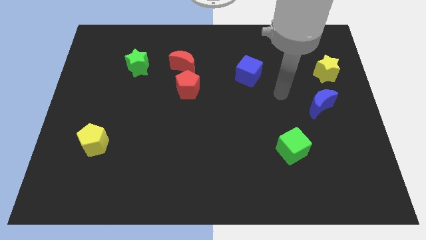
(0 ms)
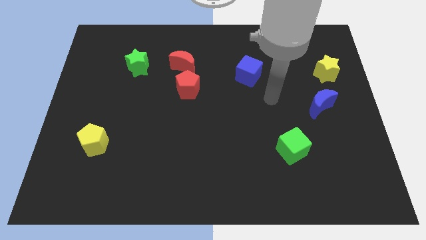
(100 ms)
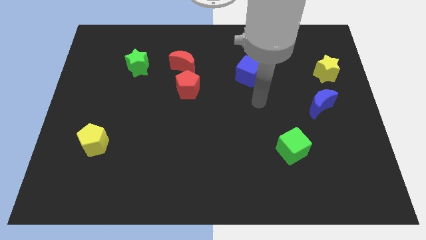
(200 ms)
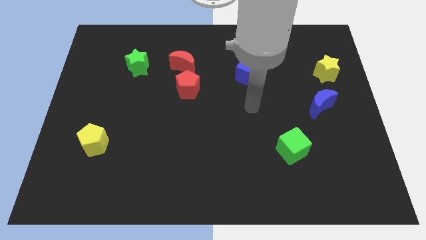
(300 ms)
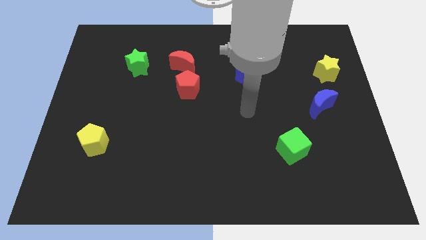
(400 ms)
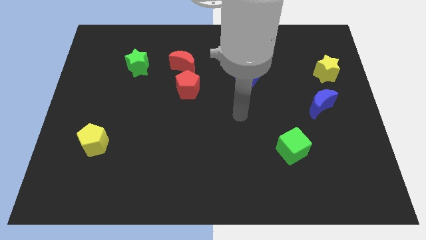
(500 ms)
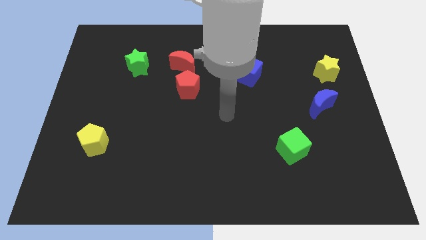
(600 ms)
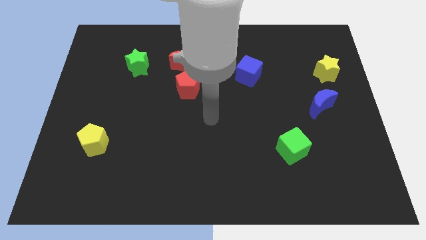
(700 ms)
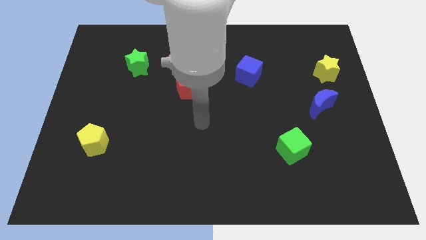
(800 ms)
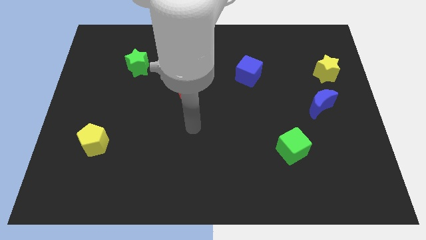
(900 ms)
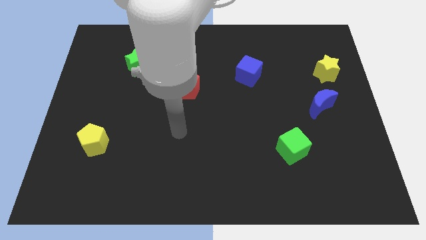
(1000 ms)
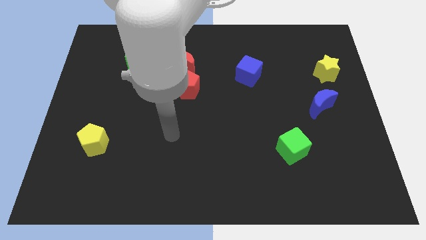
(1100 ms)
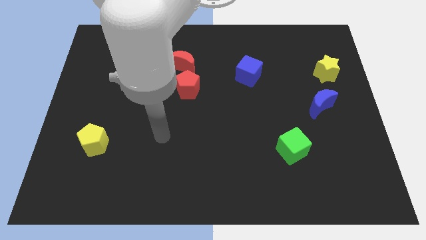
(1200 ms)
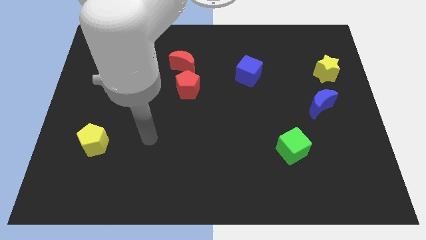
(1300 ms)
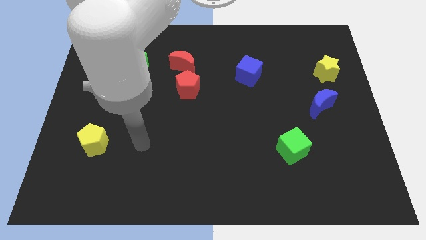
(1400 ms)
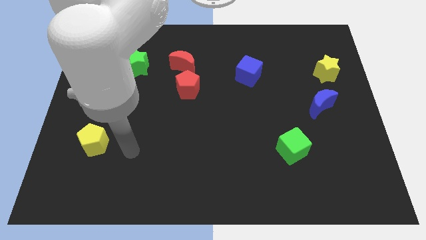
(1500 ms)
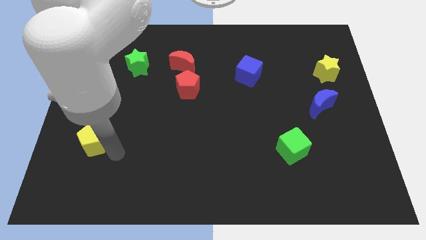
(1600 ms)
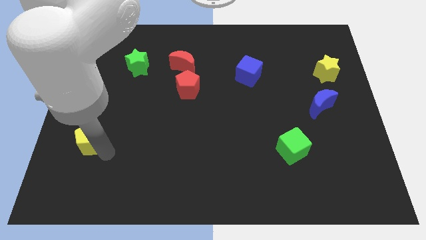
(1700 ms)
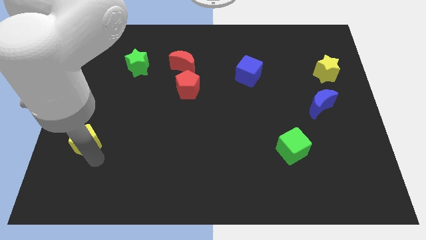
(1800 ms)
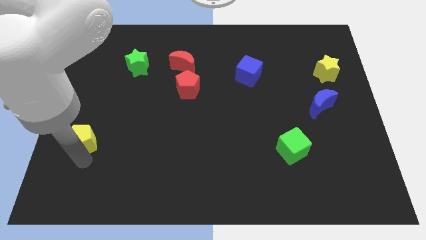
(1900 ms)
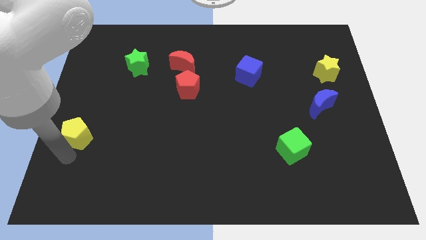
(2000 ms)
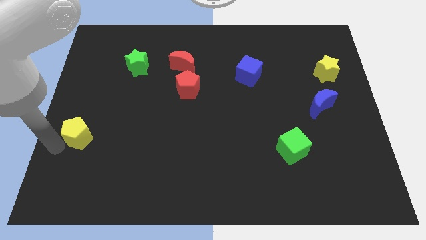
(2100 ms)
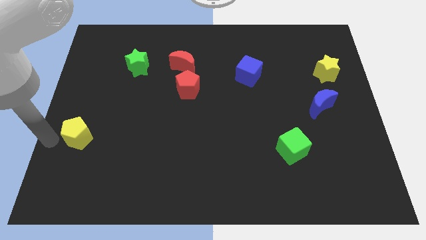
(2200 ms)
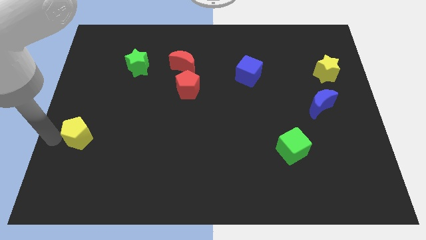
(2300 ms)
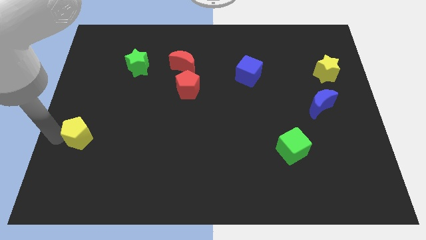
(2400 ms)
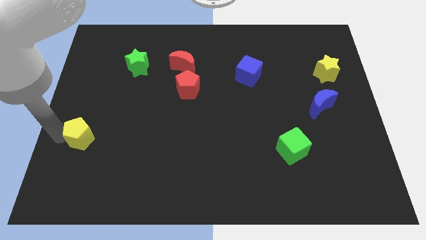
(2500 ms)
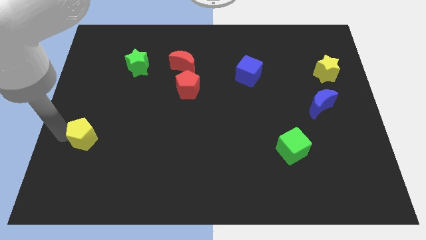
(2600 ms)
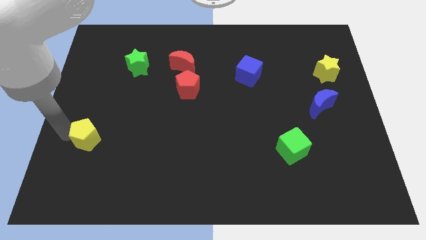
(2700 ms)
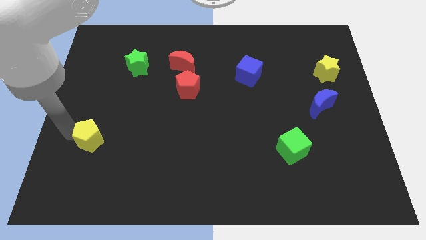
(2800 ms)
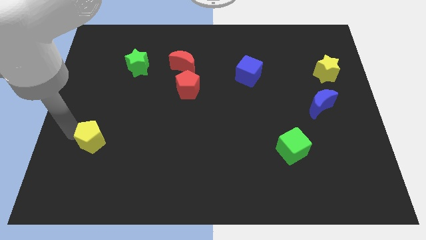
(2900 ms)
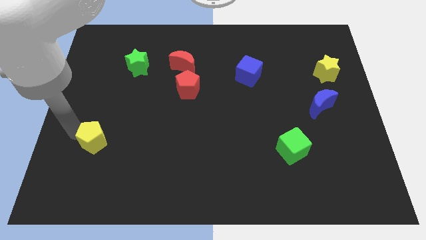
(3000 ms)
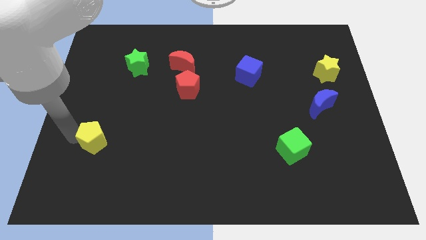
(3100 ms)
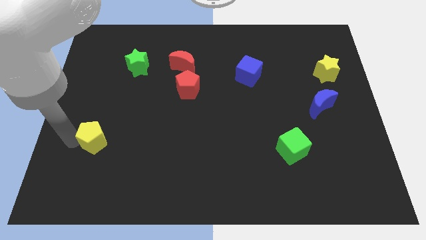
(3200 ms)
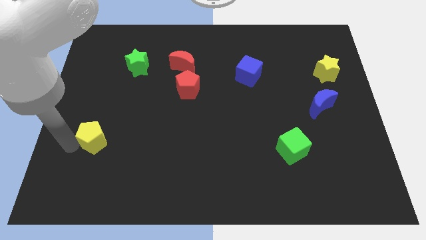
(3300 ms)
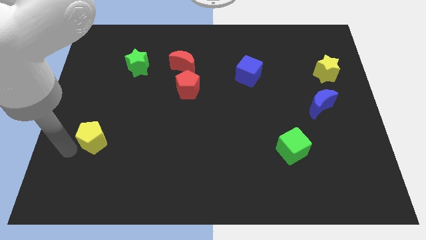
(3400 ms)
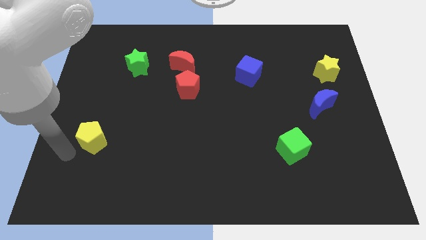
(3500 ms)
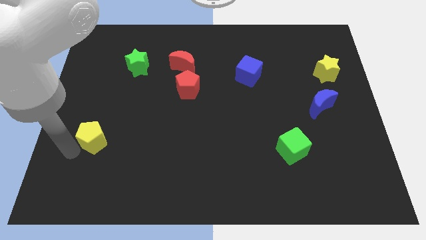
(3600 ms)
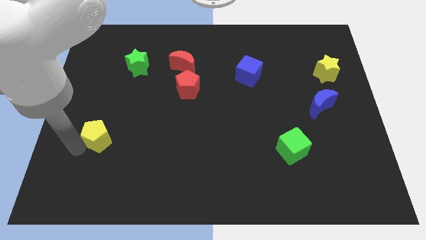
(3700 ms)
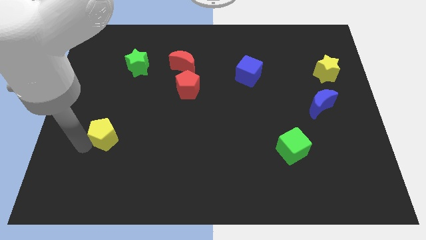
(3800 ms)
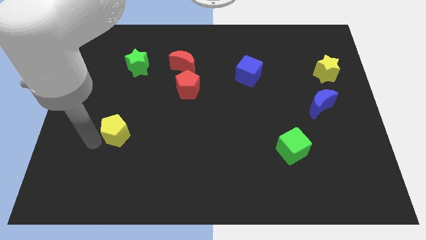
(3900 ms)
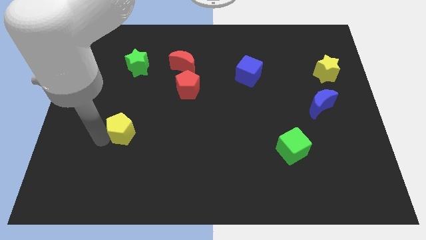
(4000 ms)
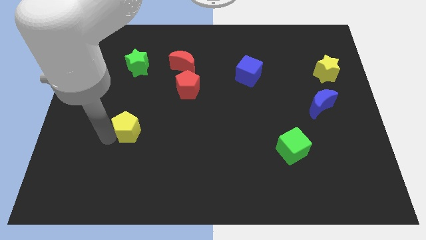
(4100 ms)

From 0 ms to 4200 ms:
slightly slide the yellow pentagon diagonally up and right

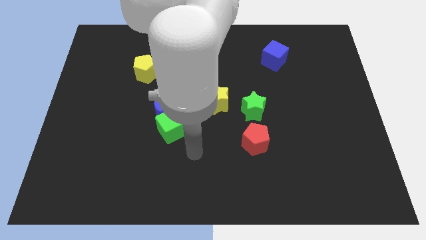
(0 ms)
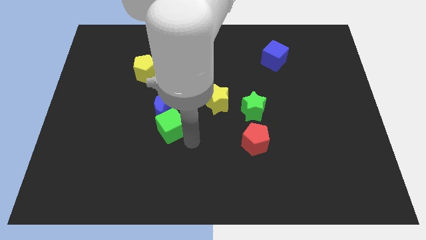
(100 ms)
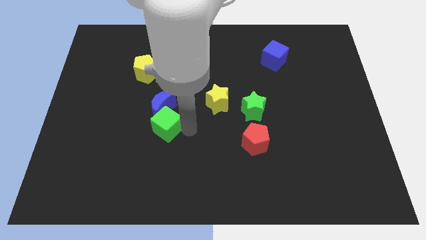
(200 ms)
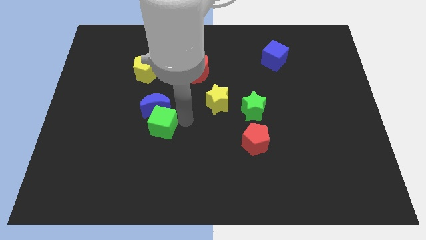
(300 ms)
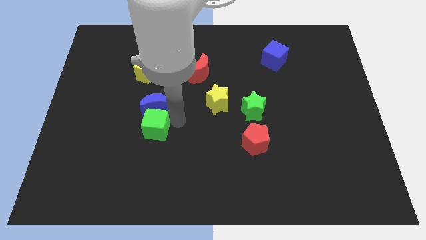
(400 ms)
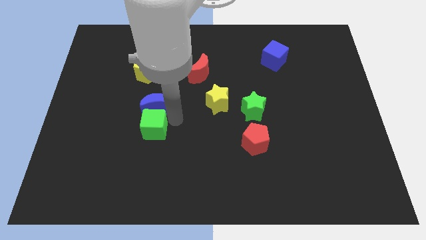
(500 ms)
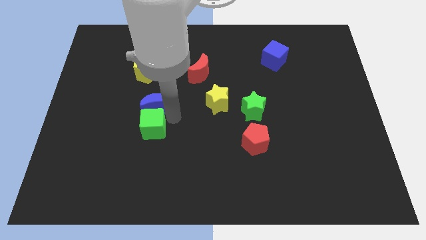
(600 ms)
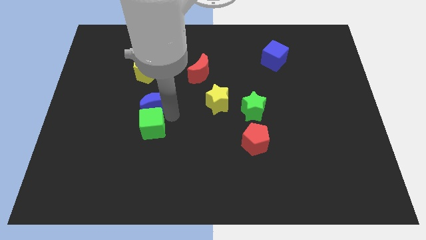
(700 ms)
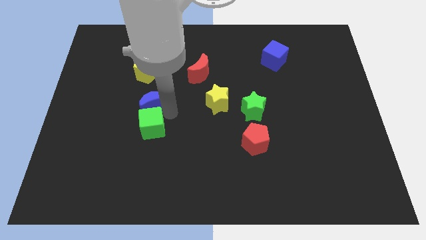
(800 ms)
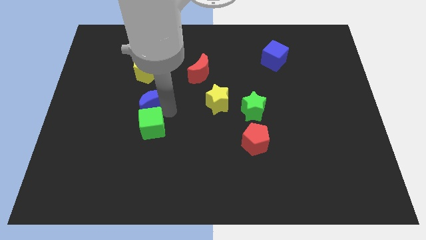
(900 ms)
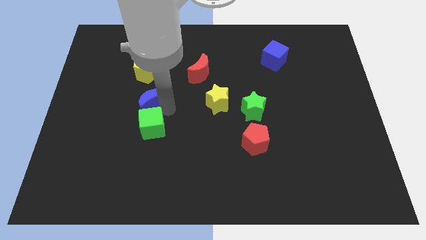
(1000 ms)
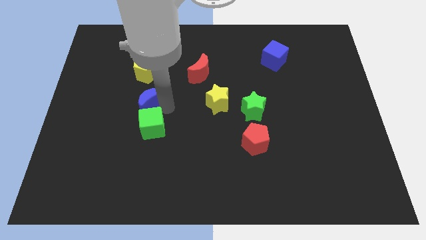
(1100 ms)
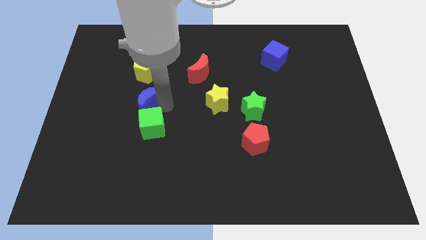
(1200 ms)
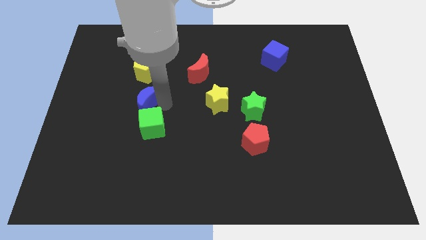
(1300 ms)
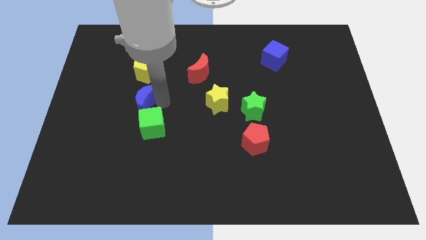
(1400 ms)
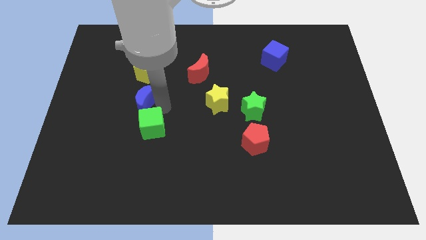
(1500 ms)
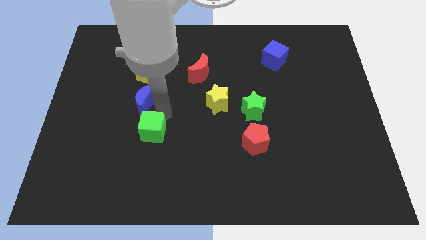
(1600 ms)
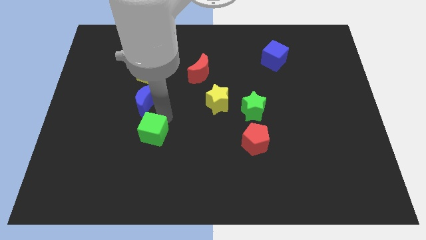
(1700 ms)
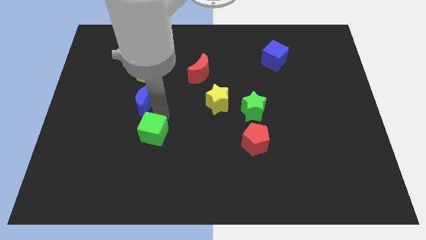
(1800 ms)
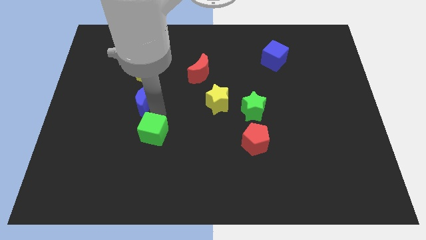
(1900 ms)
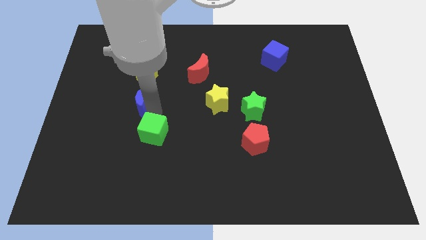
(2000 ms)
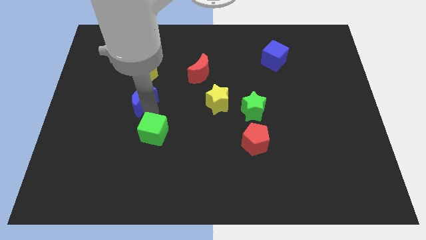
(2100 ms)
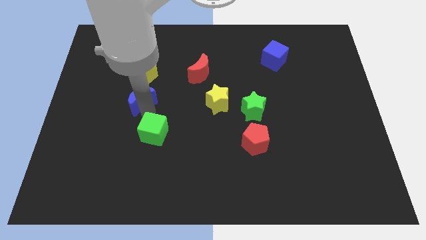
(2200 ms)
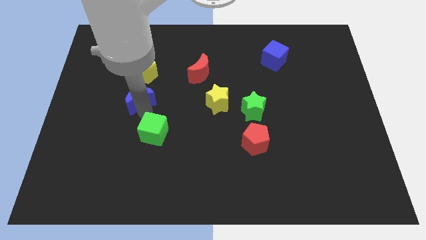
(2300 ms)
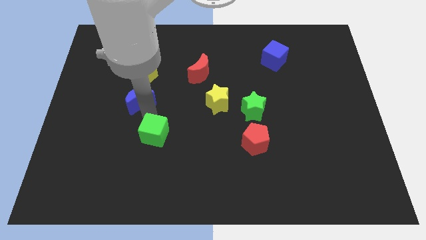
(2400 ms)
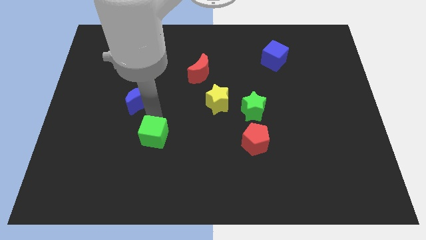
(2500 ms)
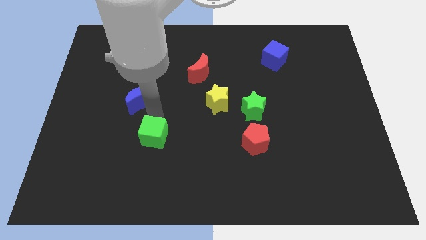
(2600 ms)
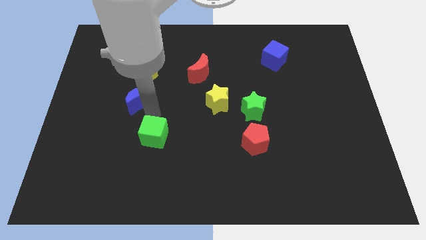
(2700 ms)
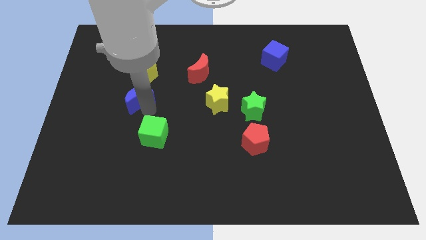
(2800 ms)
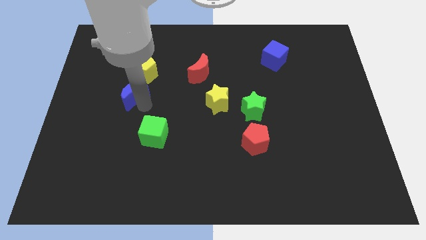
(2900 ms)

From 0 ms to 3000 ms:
slightly slide the blue moon diagonally up and to the left

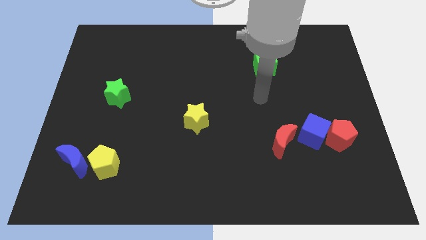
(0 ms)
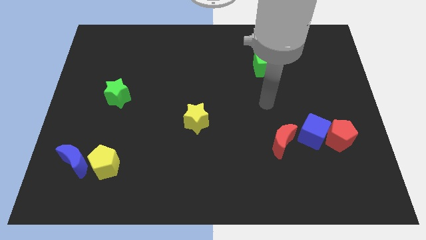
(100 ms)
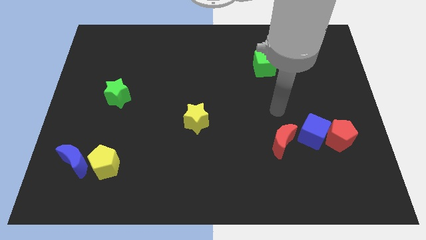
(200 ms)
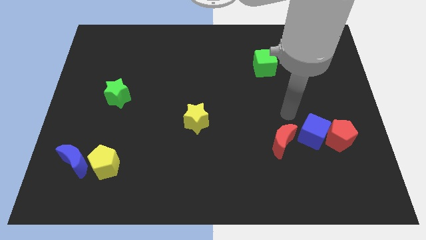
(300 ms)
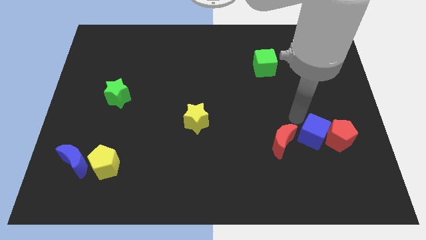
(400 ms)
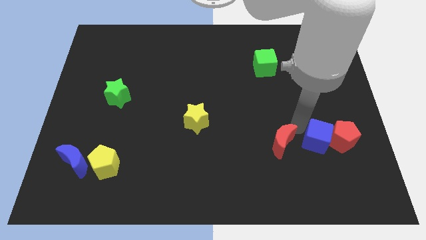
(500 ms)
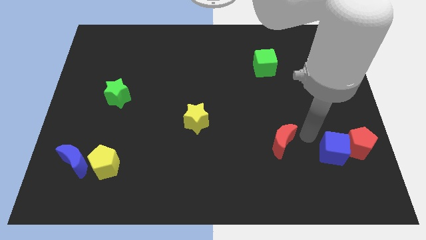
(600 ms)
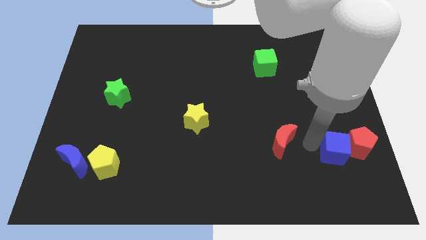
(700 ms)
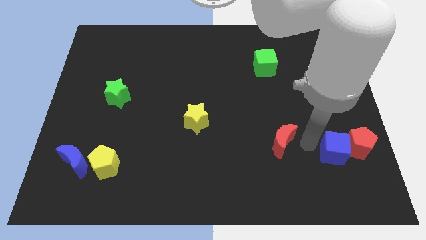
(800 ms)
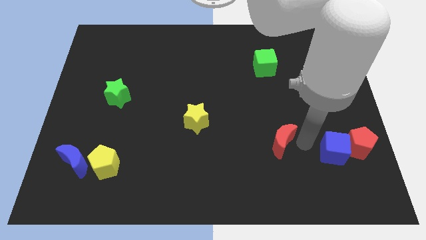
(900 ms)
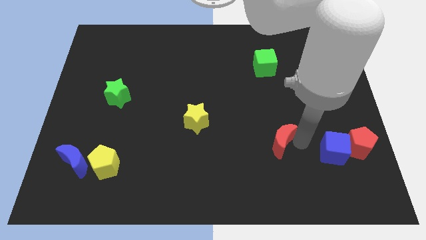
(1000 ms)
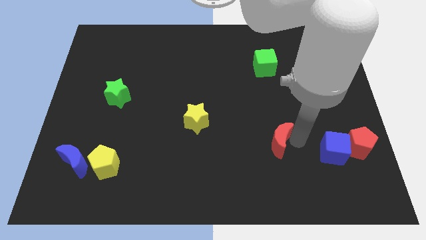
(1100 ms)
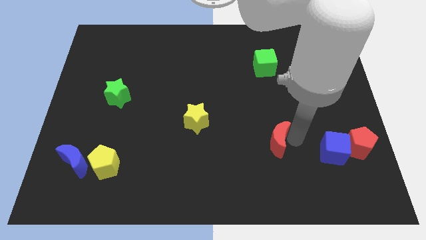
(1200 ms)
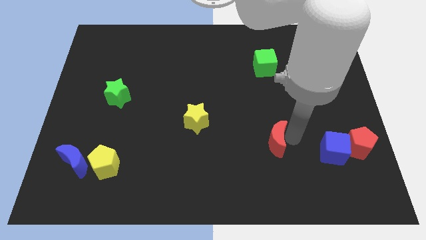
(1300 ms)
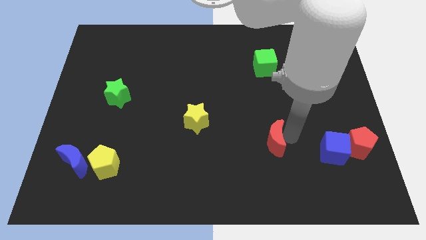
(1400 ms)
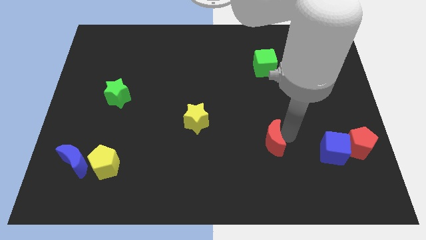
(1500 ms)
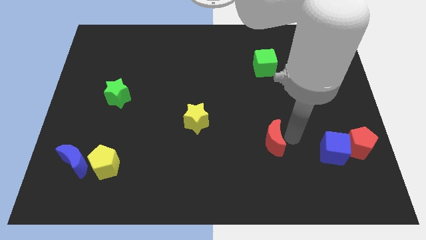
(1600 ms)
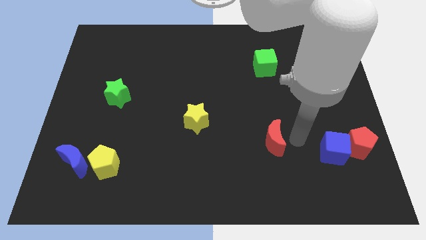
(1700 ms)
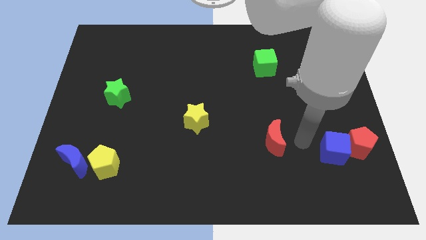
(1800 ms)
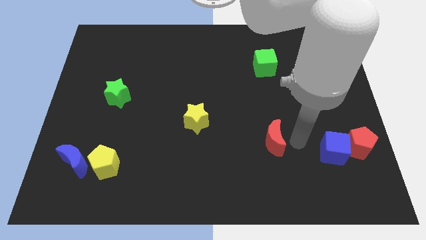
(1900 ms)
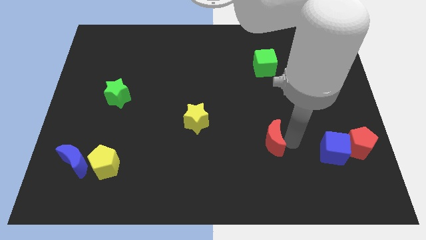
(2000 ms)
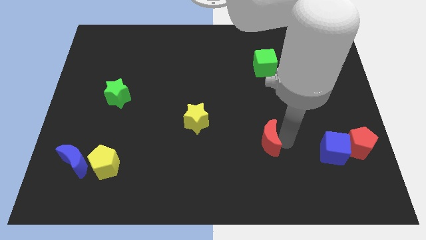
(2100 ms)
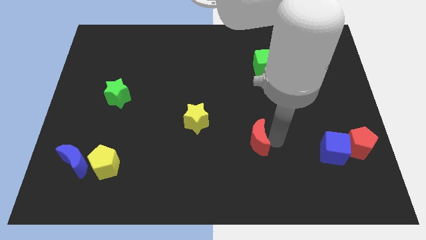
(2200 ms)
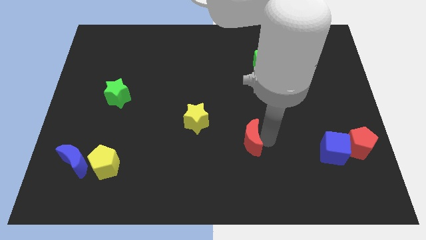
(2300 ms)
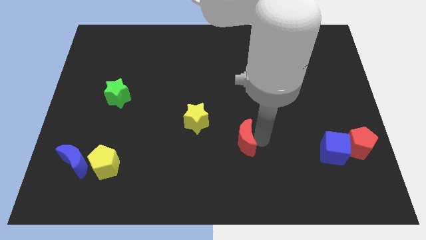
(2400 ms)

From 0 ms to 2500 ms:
push the red moon left a little bit
